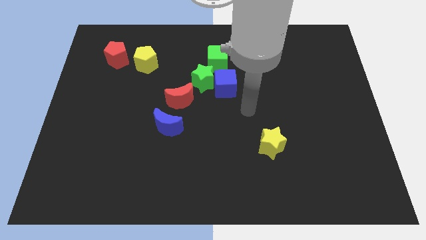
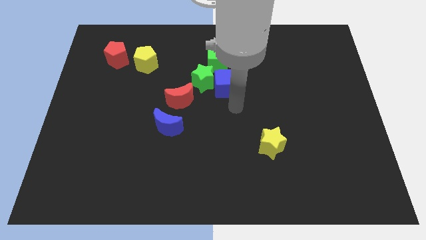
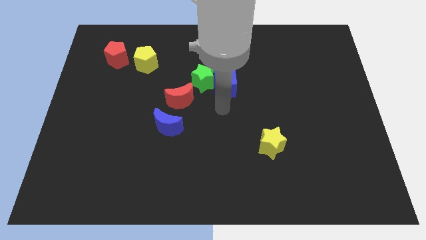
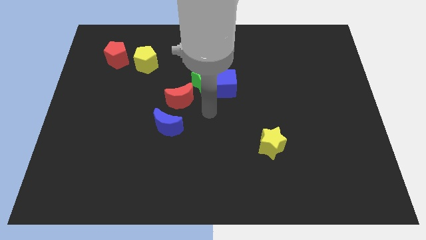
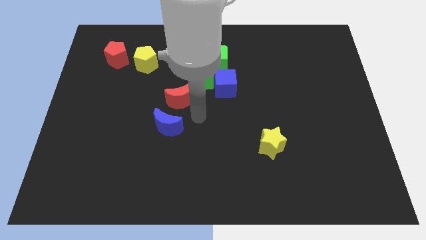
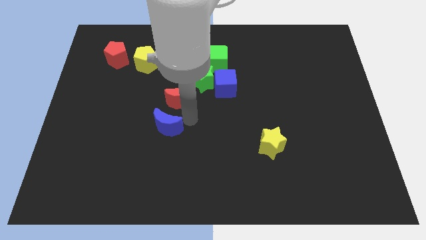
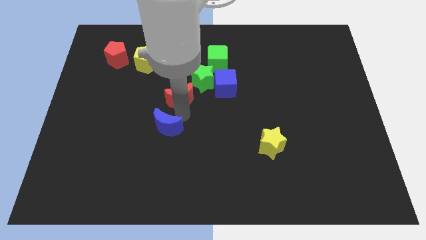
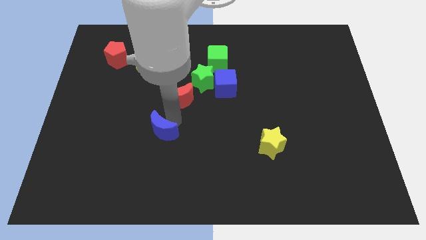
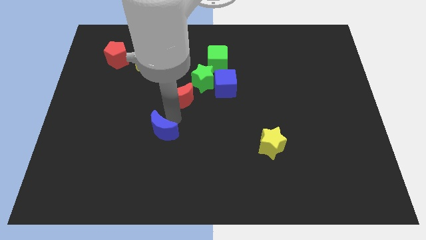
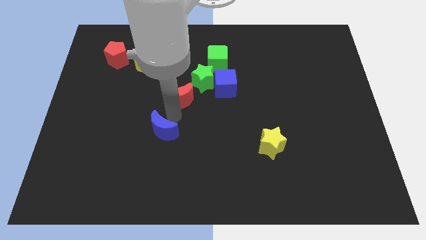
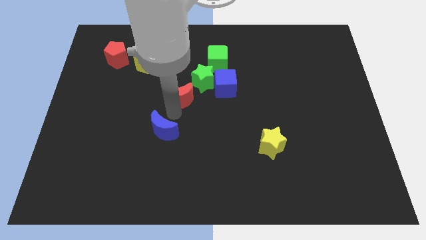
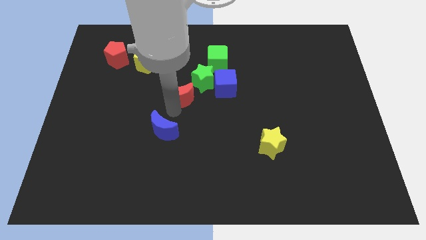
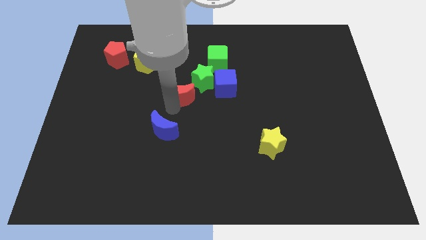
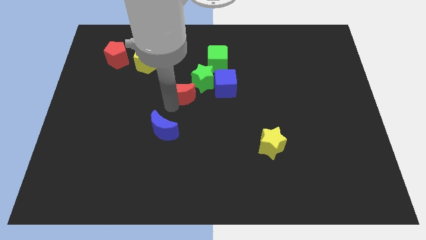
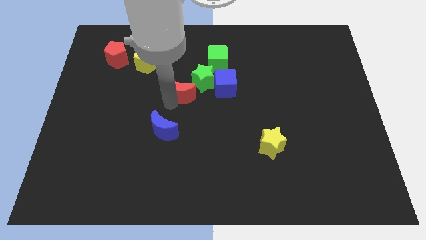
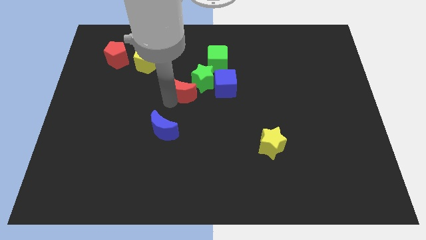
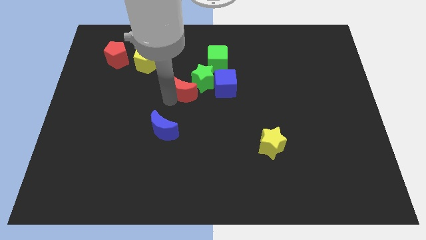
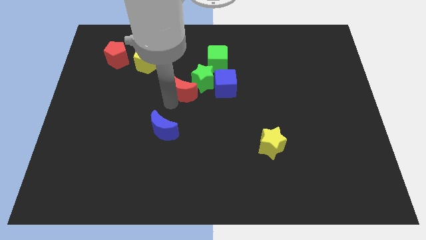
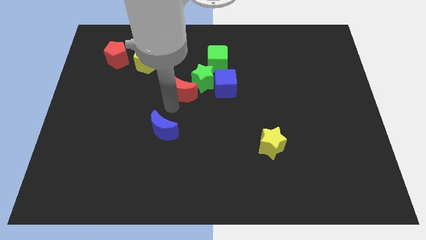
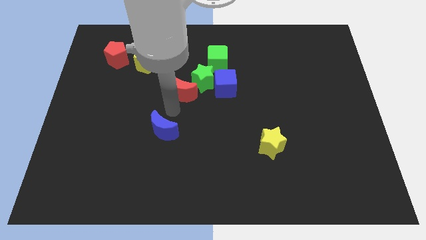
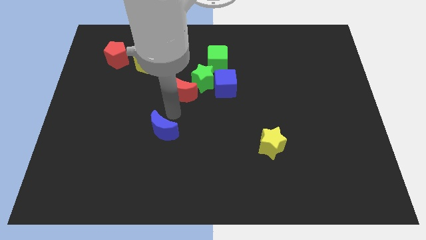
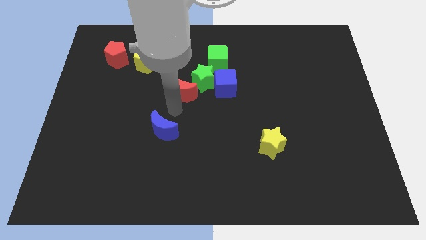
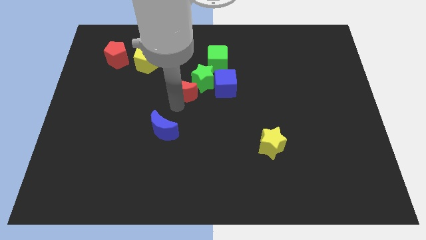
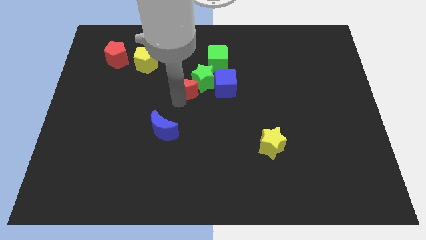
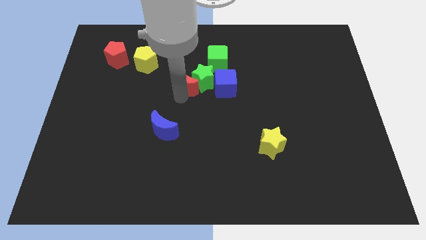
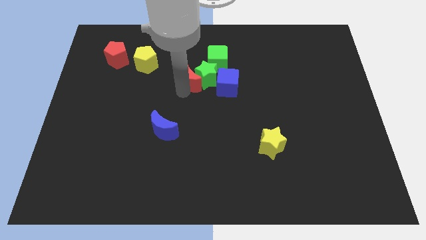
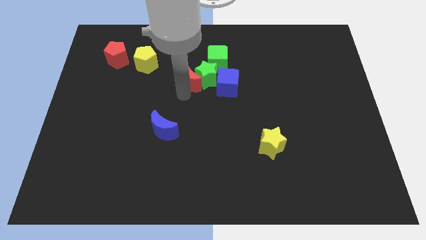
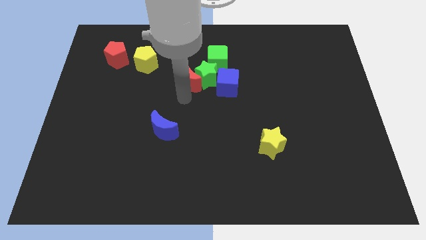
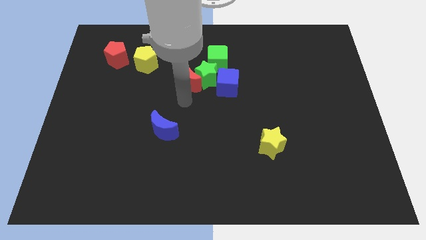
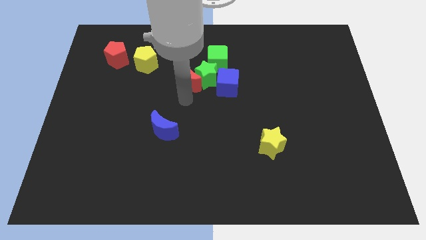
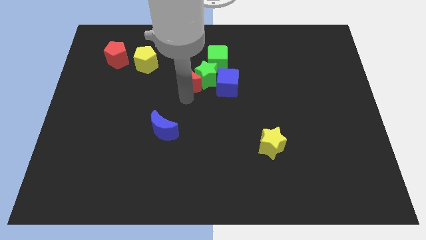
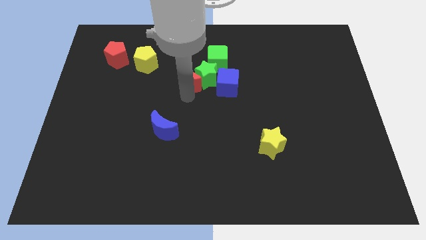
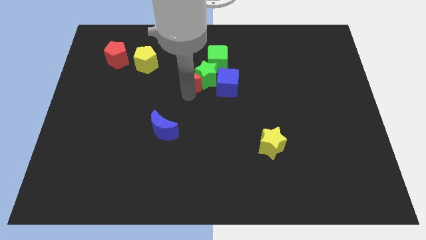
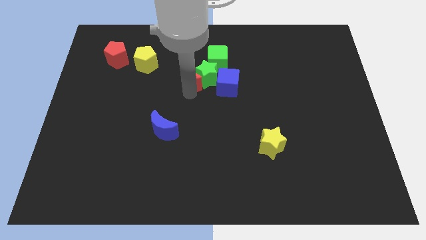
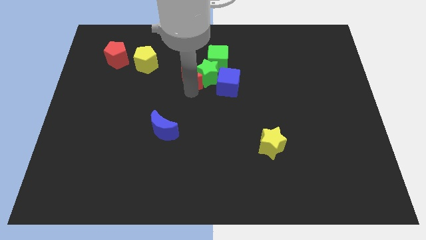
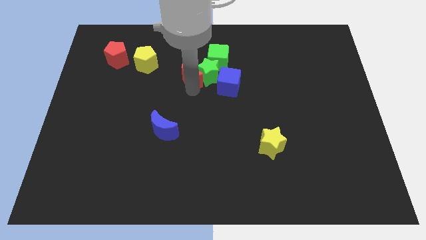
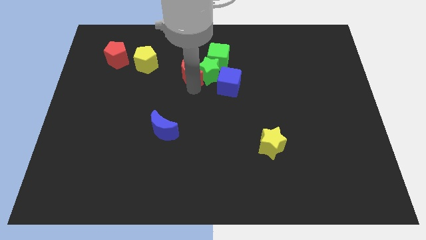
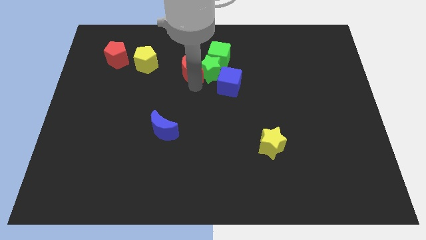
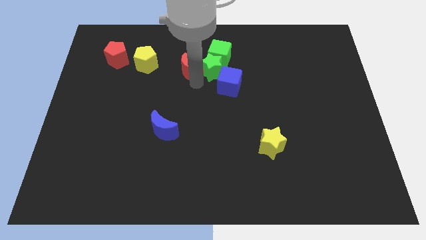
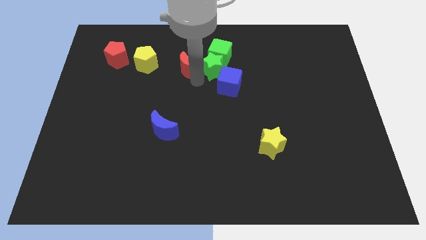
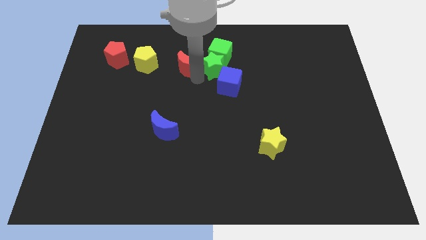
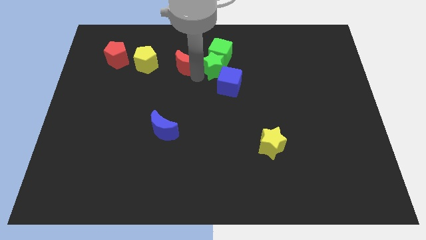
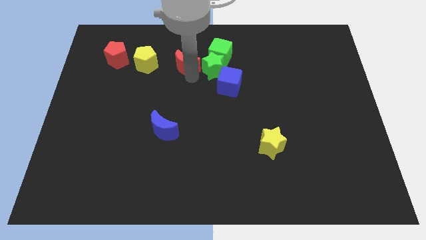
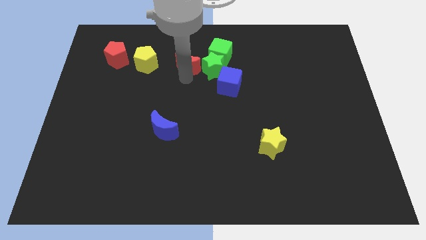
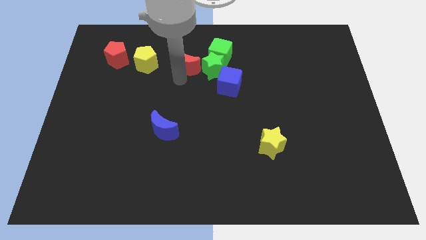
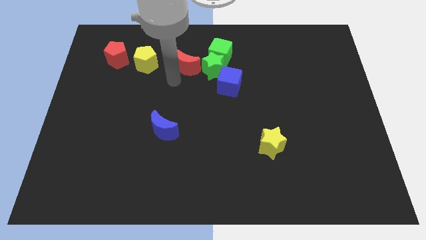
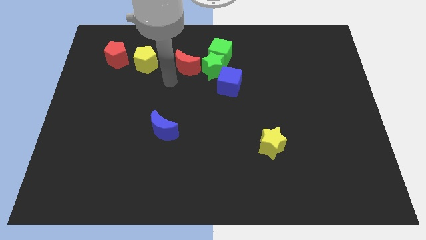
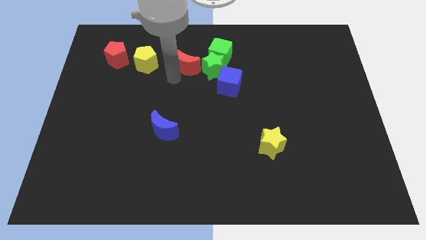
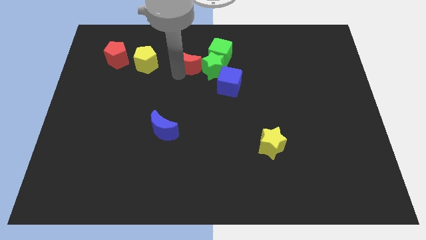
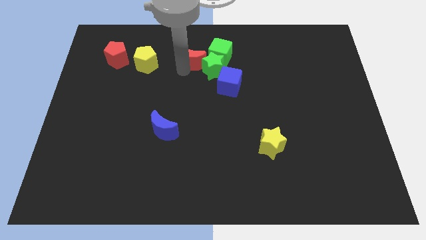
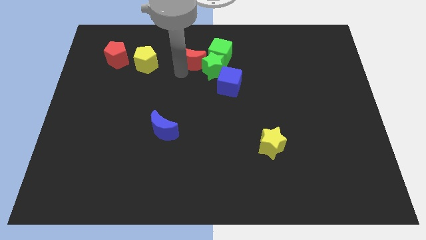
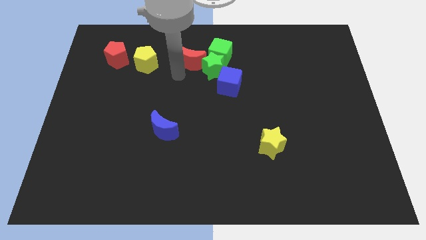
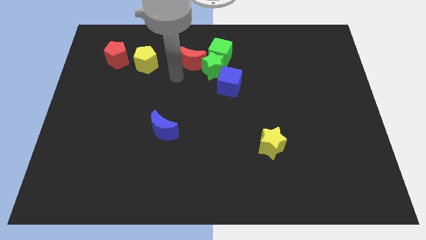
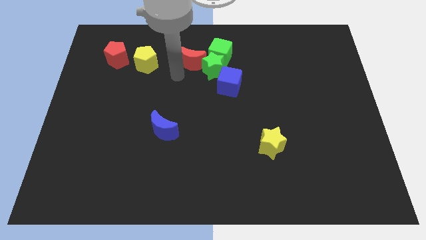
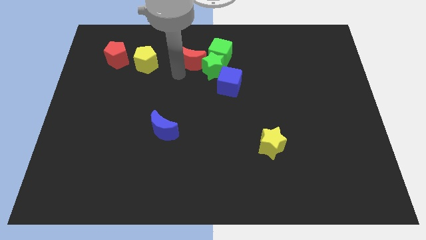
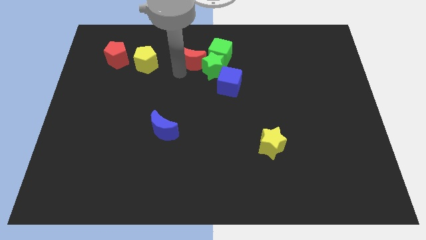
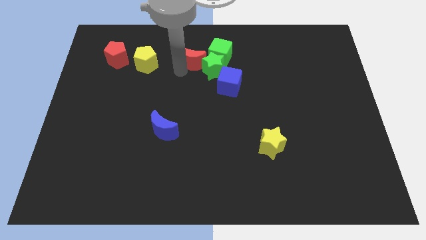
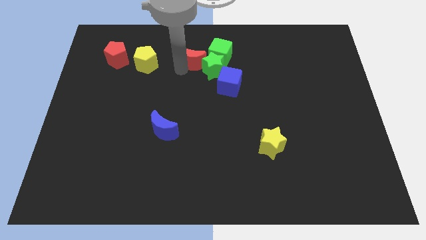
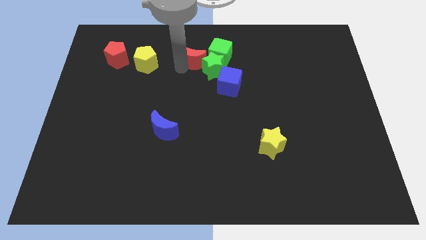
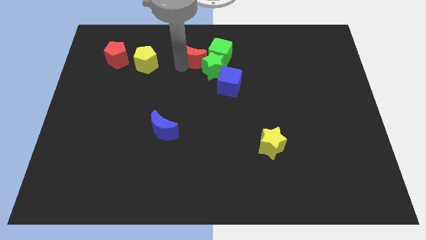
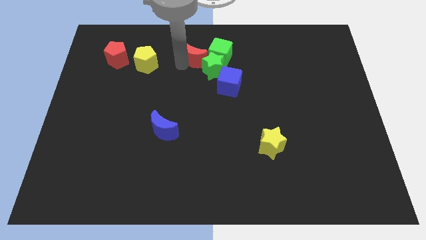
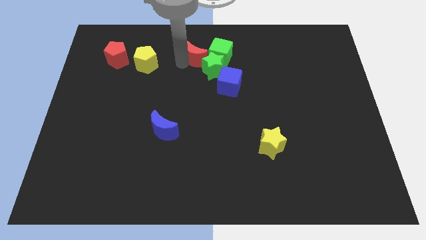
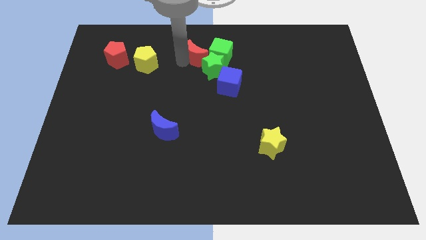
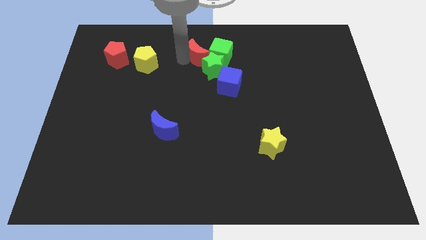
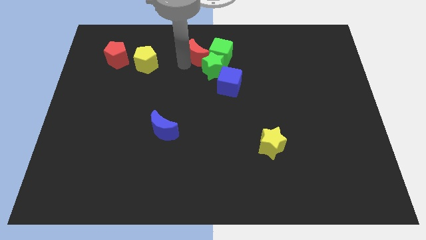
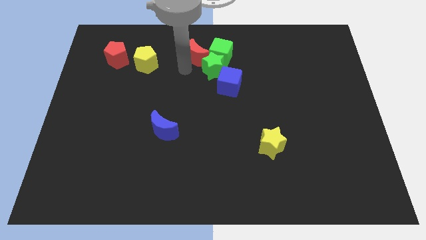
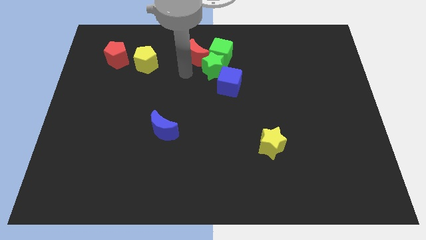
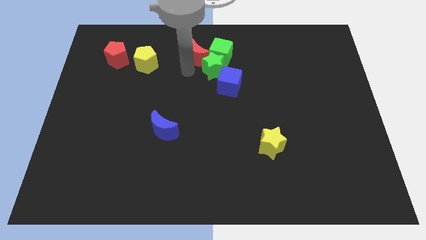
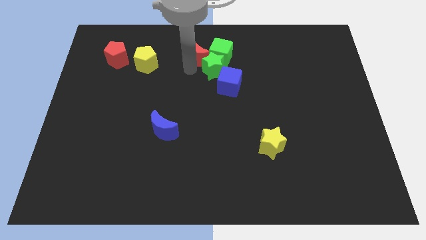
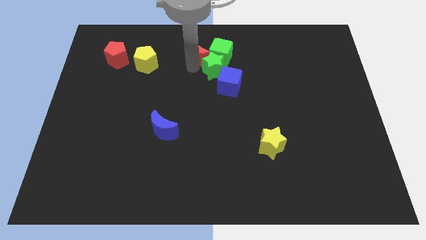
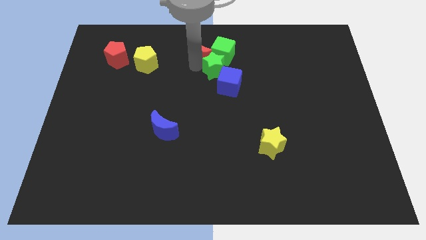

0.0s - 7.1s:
slide the red moon to the top side
